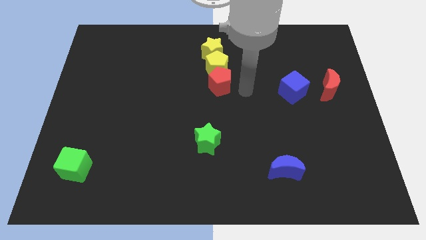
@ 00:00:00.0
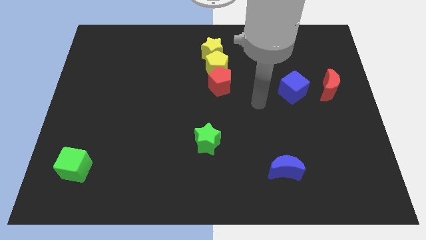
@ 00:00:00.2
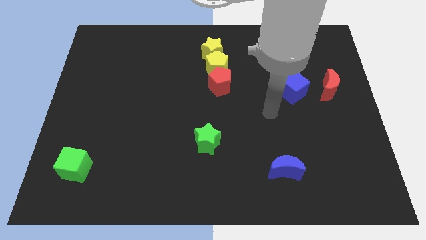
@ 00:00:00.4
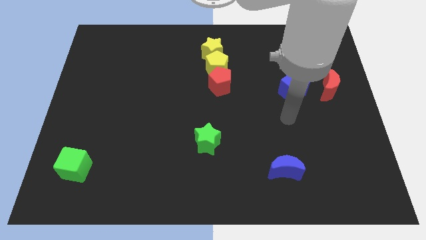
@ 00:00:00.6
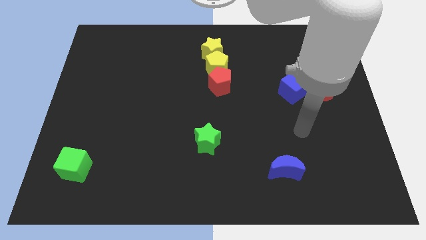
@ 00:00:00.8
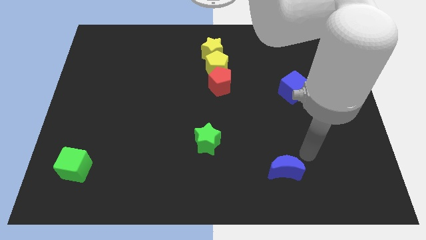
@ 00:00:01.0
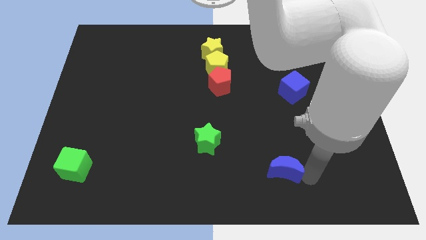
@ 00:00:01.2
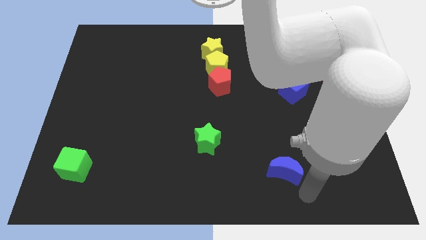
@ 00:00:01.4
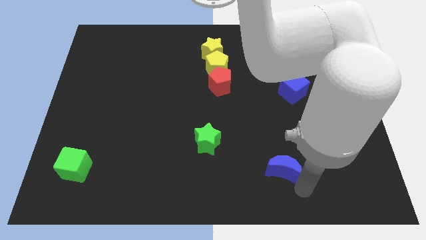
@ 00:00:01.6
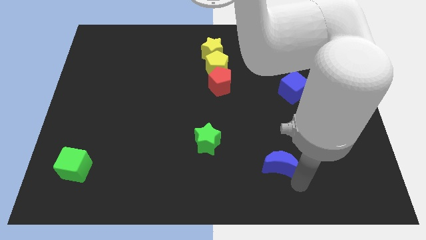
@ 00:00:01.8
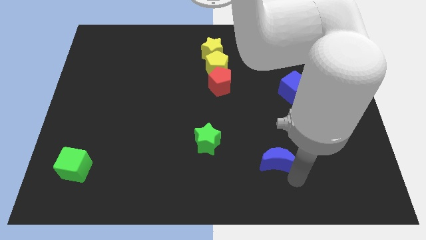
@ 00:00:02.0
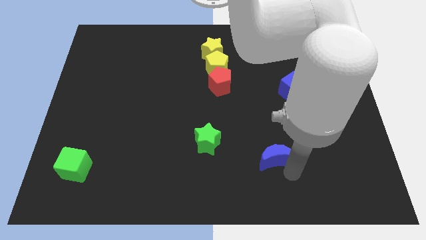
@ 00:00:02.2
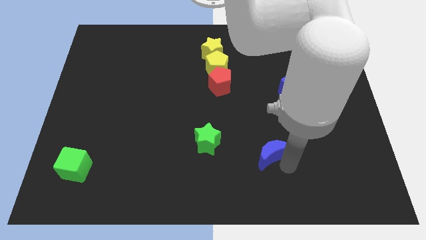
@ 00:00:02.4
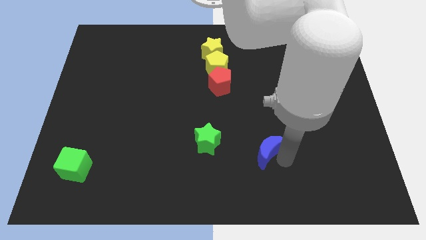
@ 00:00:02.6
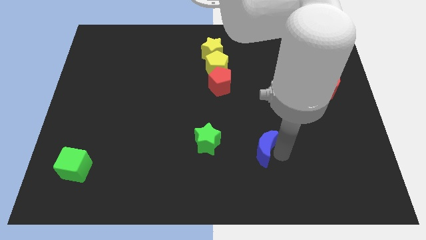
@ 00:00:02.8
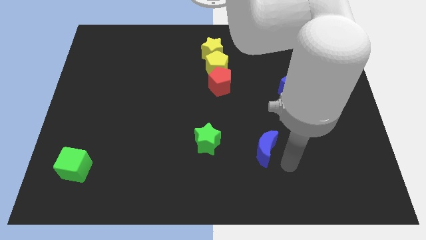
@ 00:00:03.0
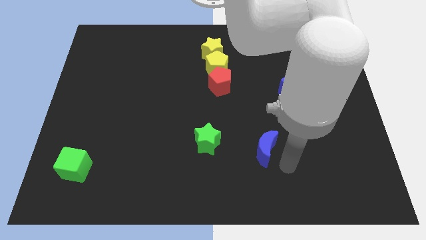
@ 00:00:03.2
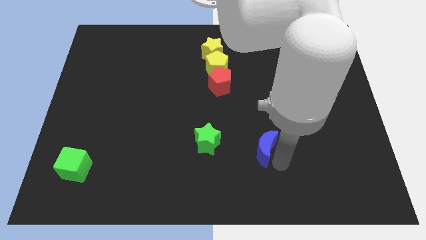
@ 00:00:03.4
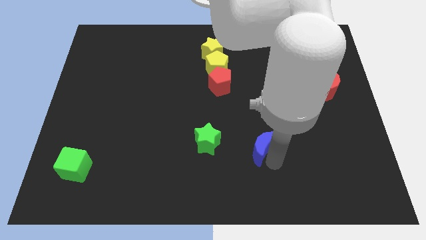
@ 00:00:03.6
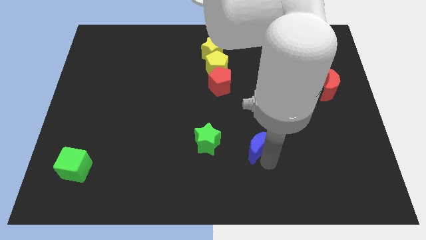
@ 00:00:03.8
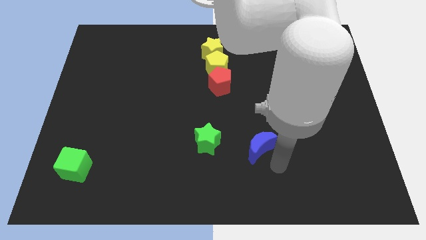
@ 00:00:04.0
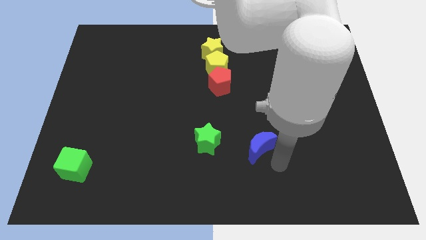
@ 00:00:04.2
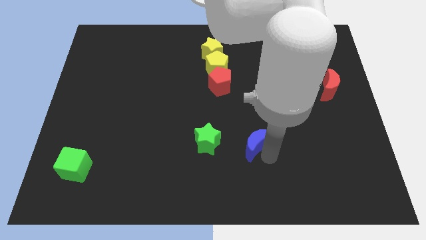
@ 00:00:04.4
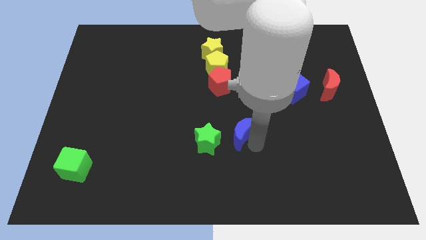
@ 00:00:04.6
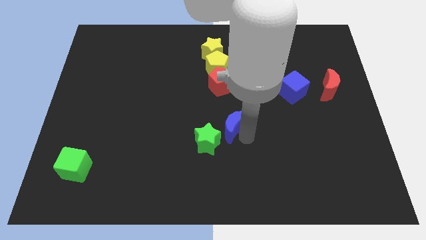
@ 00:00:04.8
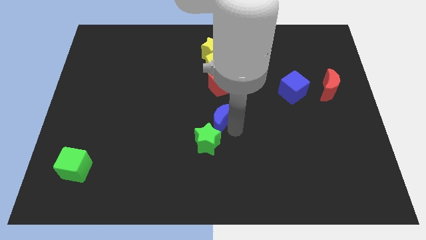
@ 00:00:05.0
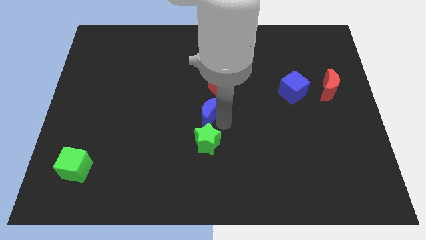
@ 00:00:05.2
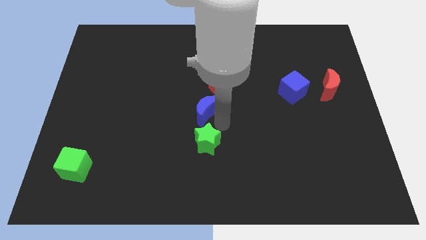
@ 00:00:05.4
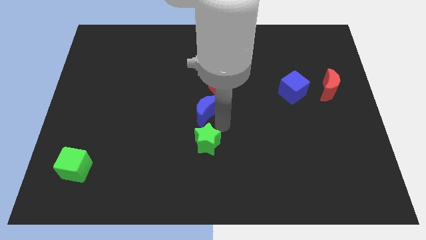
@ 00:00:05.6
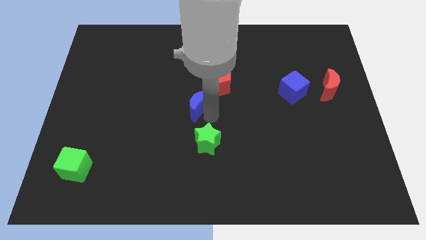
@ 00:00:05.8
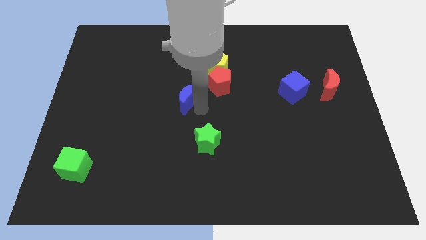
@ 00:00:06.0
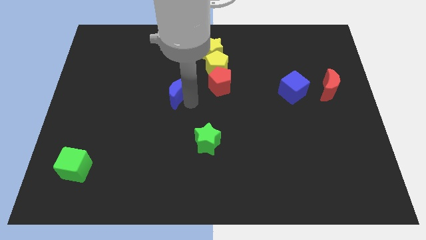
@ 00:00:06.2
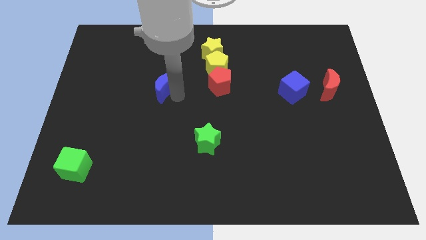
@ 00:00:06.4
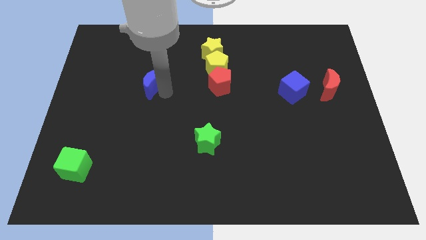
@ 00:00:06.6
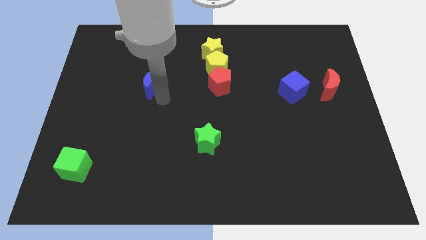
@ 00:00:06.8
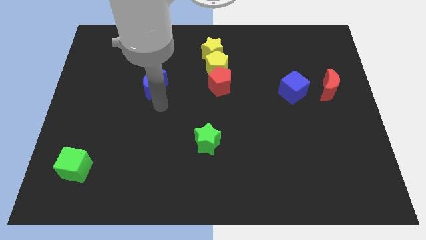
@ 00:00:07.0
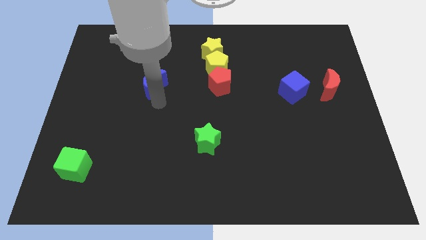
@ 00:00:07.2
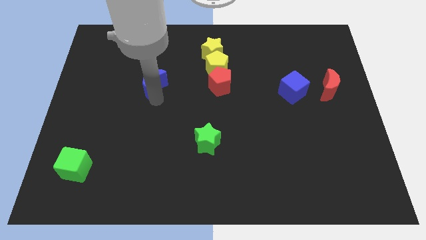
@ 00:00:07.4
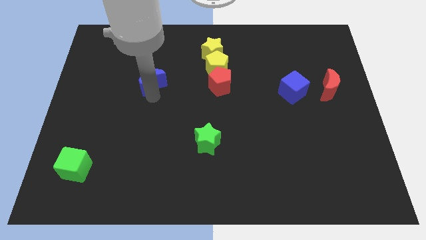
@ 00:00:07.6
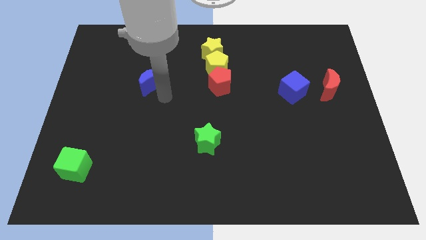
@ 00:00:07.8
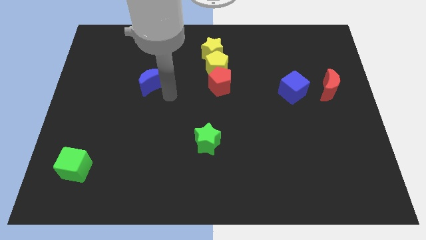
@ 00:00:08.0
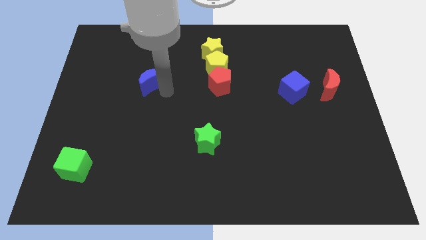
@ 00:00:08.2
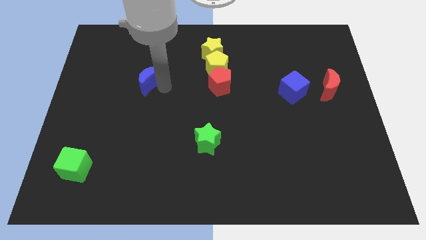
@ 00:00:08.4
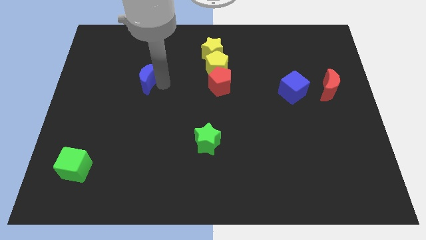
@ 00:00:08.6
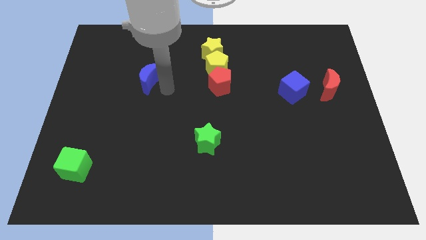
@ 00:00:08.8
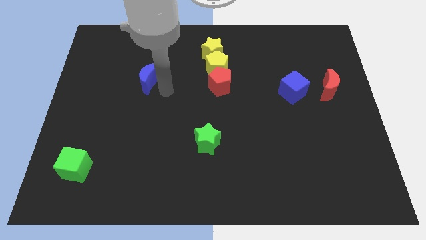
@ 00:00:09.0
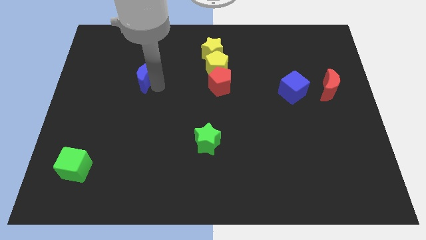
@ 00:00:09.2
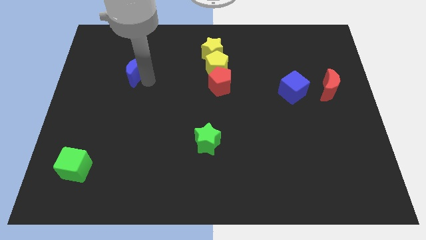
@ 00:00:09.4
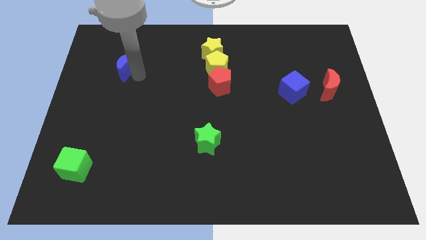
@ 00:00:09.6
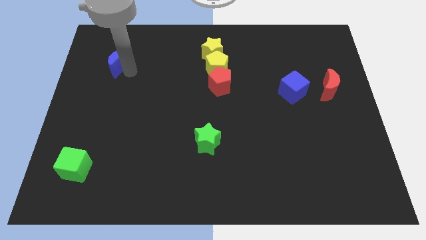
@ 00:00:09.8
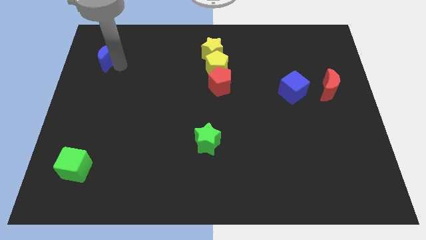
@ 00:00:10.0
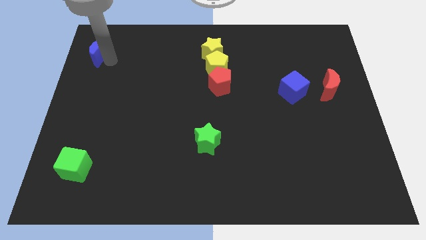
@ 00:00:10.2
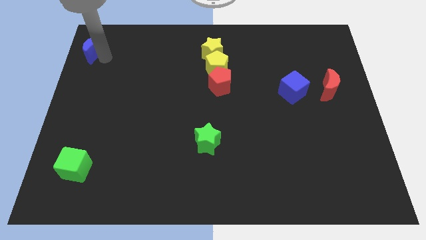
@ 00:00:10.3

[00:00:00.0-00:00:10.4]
put the blue moon to the top left of the board

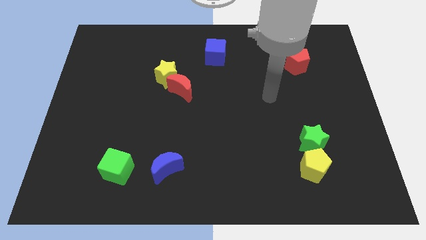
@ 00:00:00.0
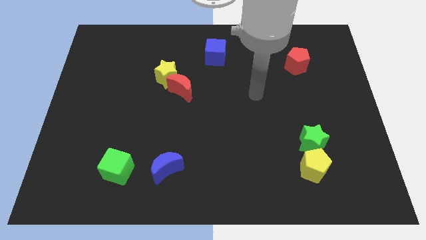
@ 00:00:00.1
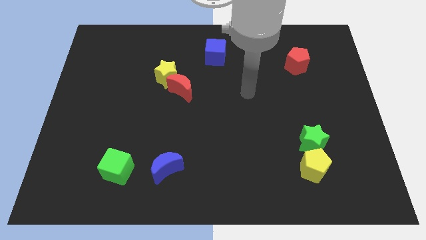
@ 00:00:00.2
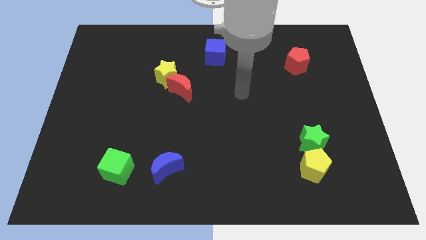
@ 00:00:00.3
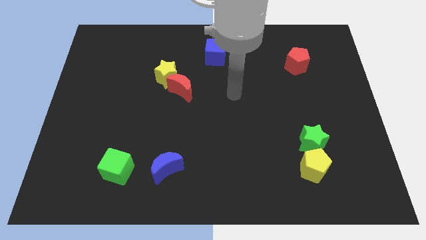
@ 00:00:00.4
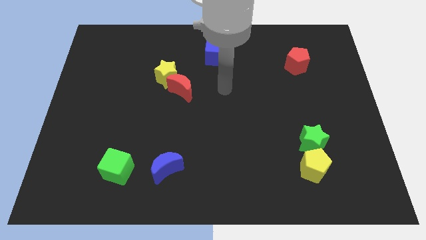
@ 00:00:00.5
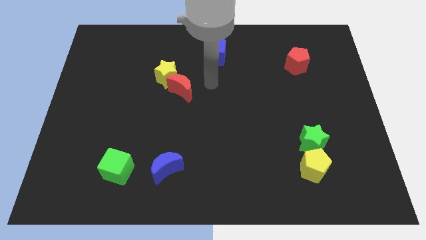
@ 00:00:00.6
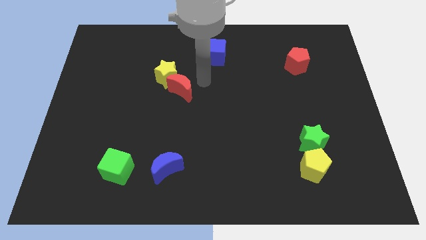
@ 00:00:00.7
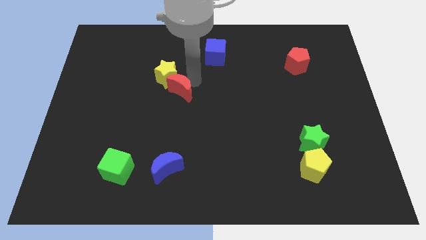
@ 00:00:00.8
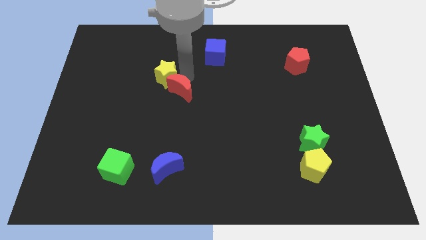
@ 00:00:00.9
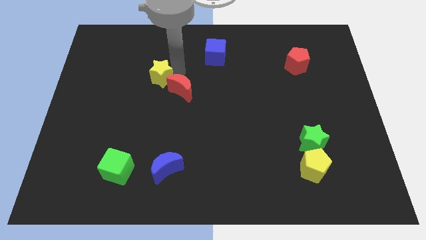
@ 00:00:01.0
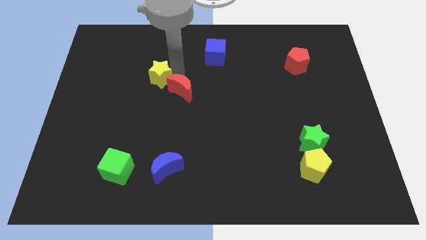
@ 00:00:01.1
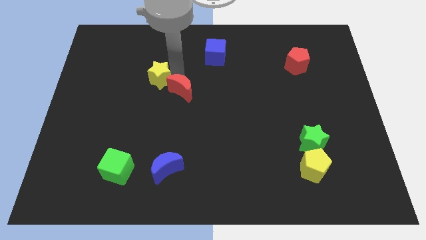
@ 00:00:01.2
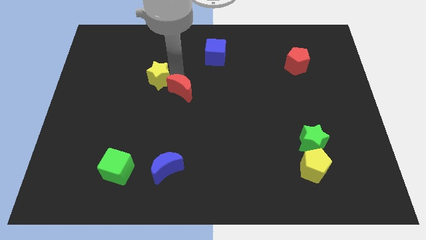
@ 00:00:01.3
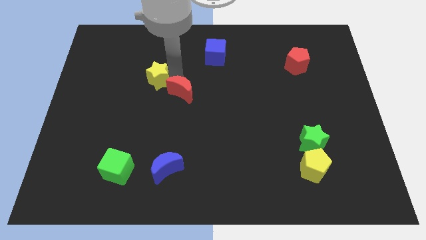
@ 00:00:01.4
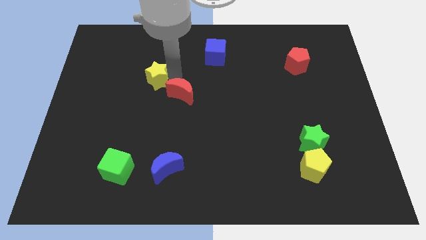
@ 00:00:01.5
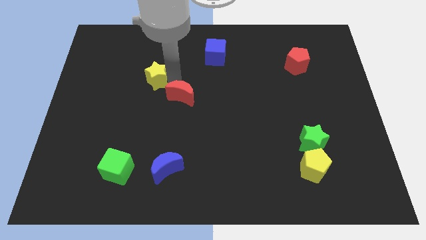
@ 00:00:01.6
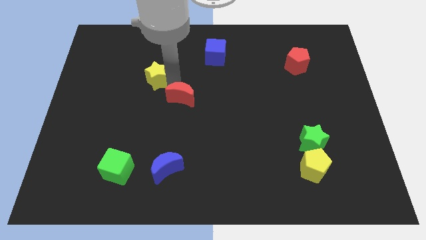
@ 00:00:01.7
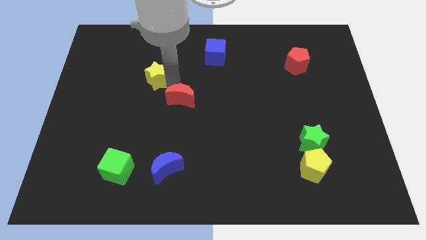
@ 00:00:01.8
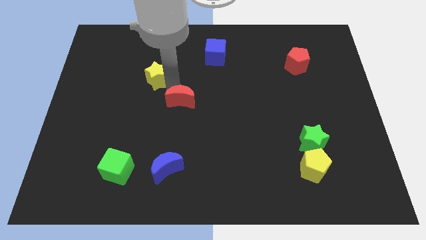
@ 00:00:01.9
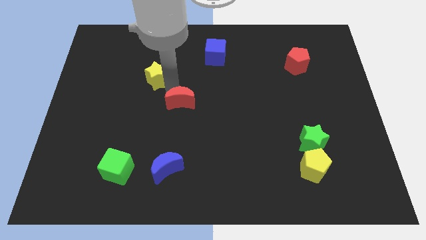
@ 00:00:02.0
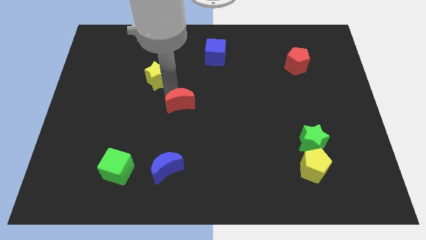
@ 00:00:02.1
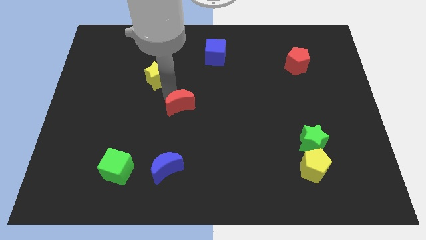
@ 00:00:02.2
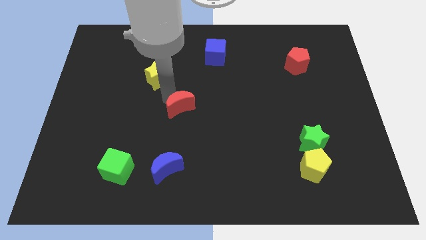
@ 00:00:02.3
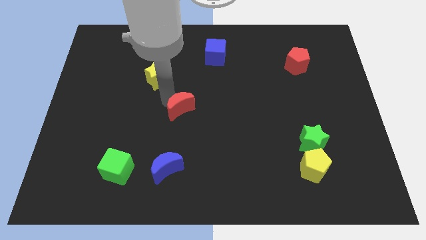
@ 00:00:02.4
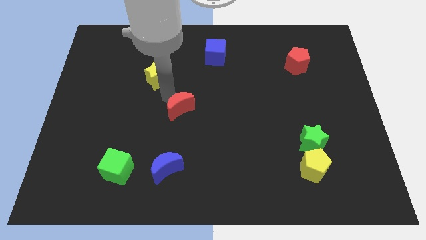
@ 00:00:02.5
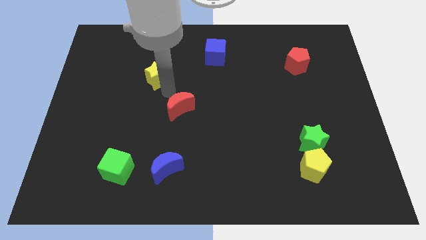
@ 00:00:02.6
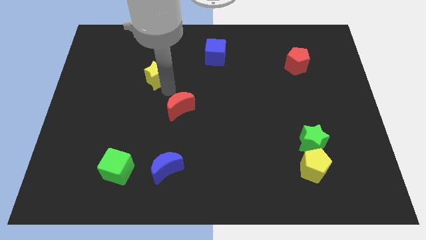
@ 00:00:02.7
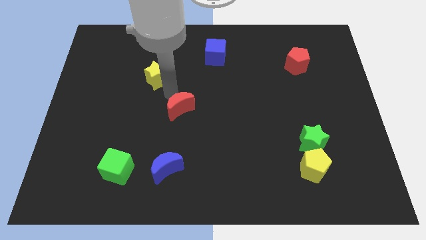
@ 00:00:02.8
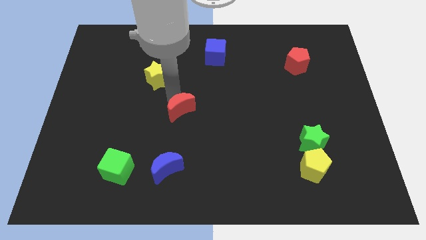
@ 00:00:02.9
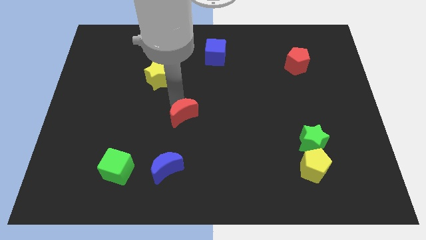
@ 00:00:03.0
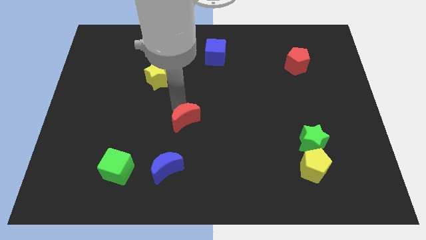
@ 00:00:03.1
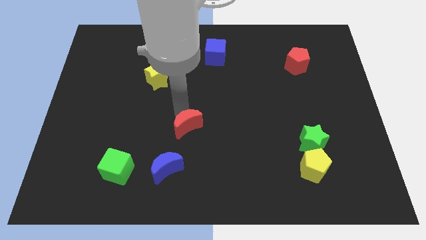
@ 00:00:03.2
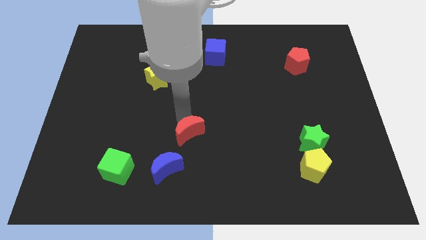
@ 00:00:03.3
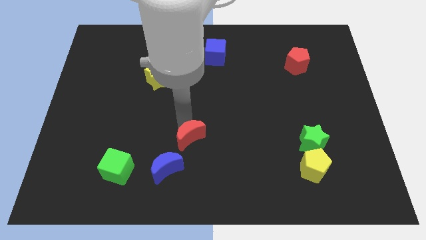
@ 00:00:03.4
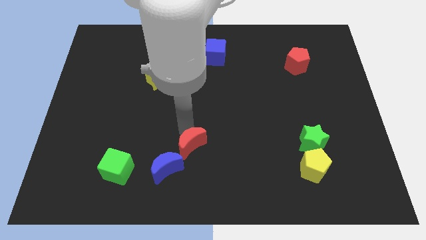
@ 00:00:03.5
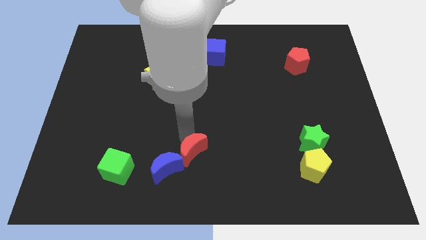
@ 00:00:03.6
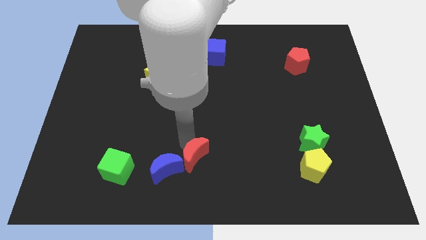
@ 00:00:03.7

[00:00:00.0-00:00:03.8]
slide the red moon to the bottom side
